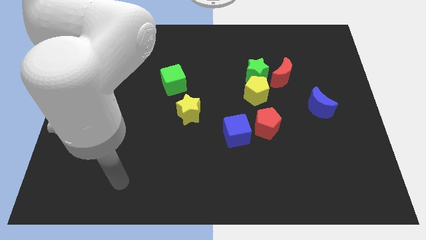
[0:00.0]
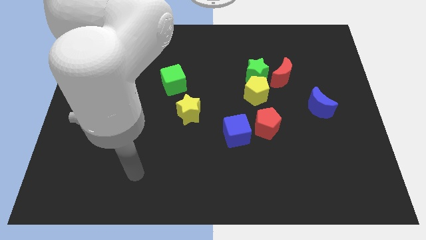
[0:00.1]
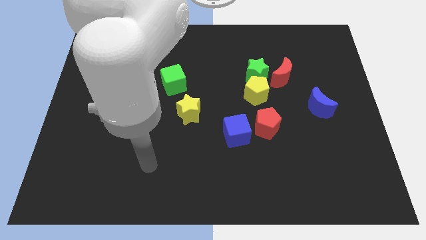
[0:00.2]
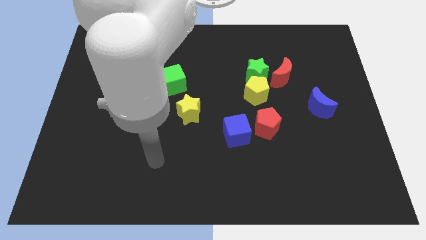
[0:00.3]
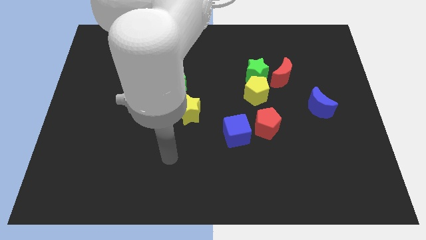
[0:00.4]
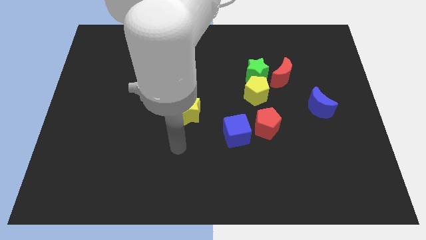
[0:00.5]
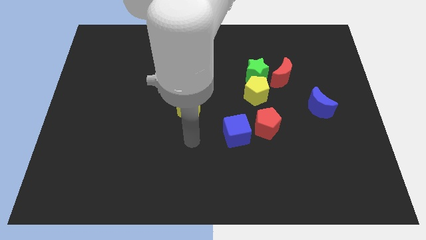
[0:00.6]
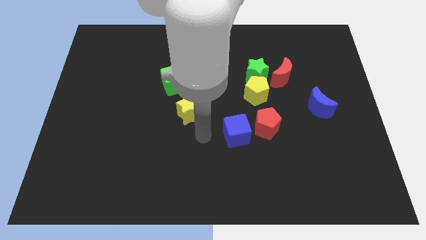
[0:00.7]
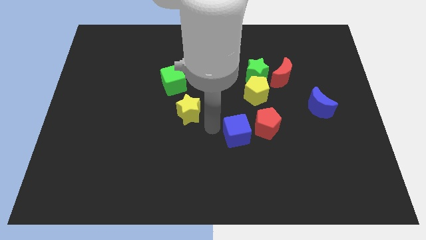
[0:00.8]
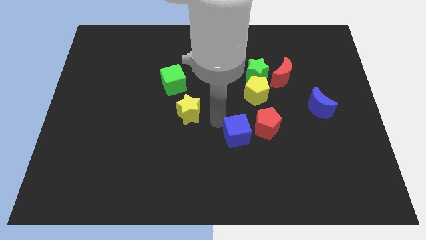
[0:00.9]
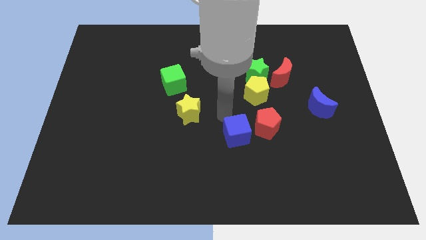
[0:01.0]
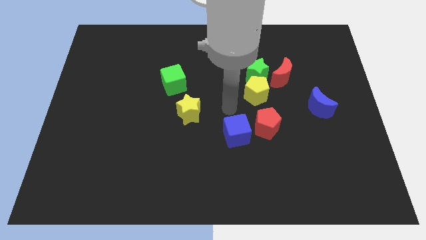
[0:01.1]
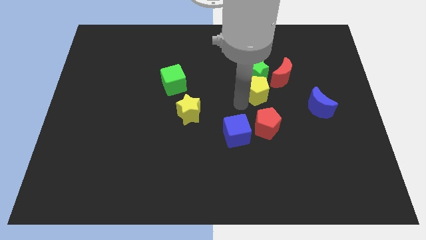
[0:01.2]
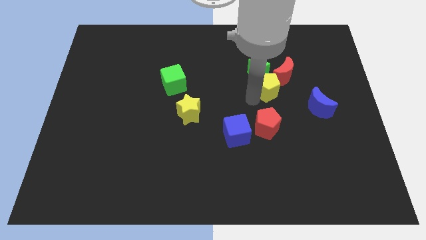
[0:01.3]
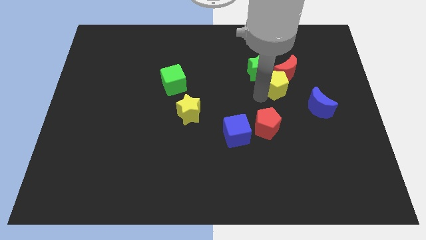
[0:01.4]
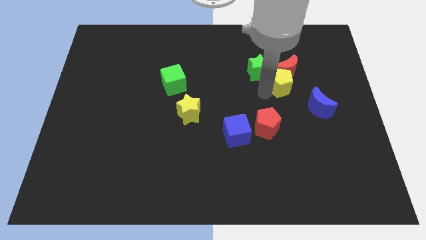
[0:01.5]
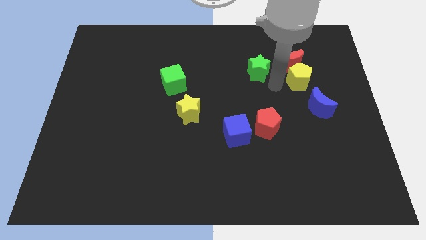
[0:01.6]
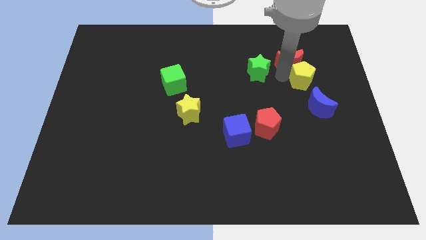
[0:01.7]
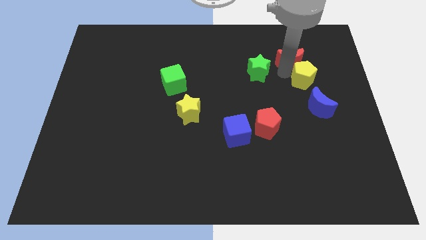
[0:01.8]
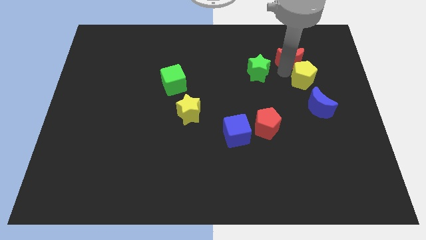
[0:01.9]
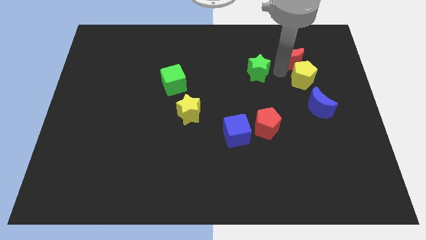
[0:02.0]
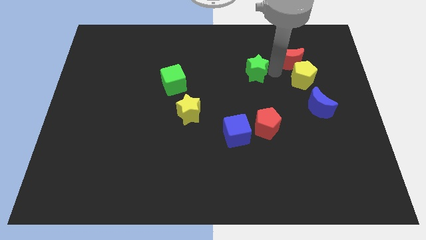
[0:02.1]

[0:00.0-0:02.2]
separate the green star from the yellow pentagon and red moon

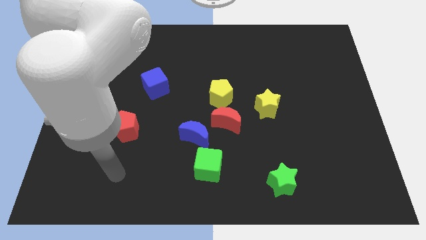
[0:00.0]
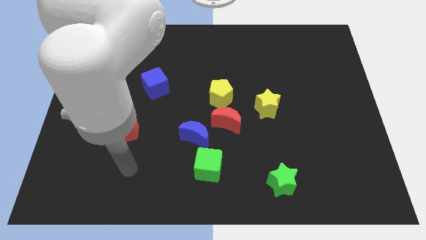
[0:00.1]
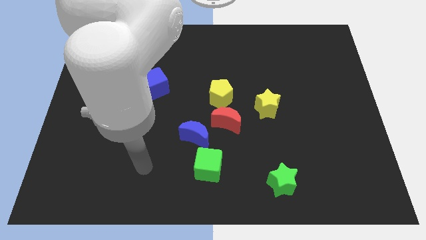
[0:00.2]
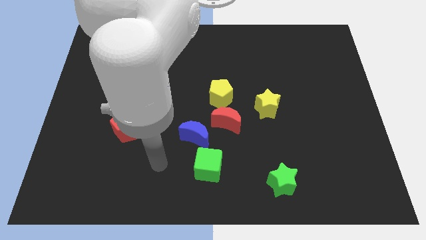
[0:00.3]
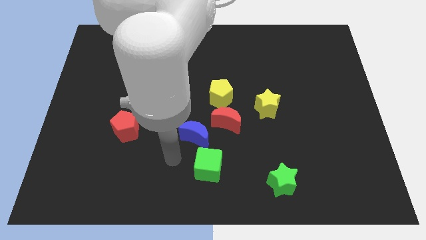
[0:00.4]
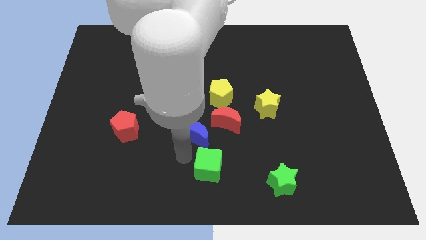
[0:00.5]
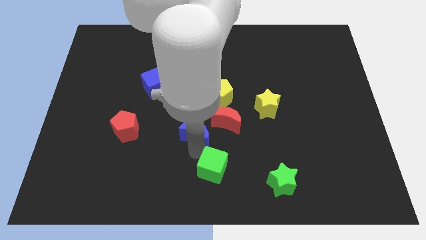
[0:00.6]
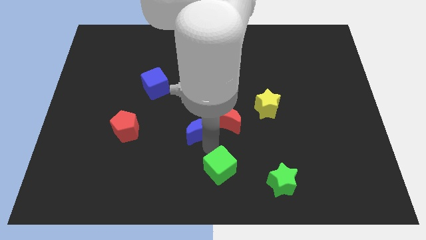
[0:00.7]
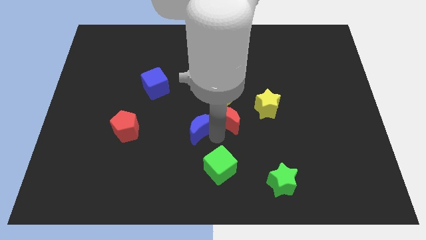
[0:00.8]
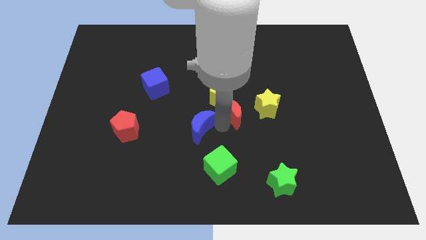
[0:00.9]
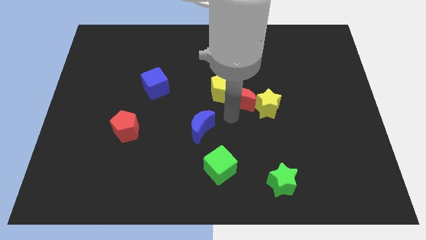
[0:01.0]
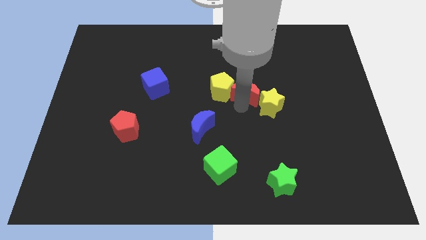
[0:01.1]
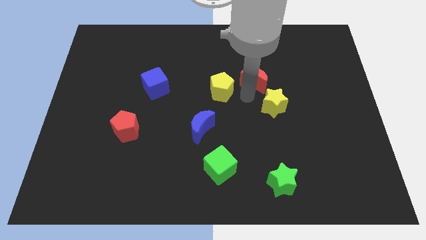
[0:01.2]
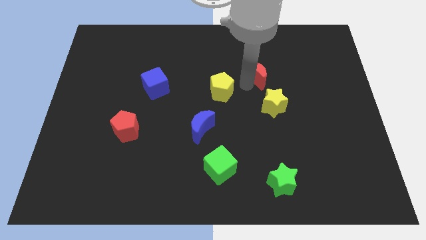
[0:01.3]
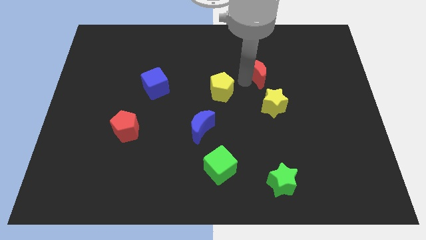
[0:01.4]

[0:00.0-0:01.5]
separate the yellow pentagon from the red moon

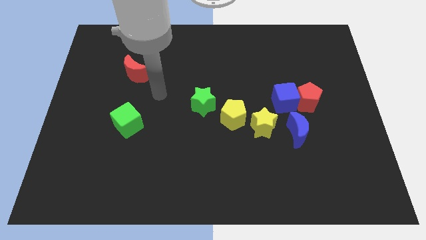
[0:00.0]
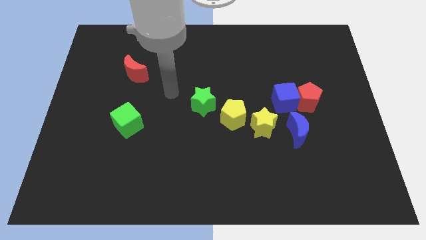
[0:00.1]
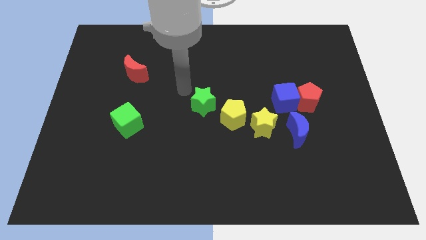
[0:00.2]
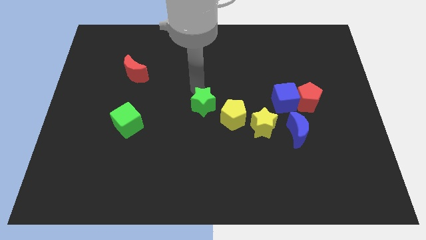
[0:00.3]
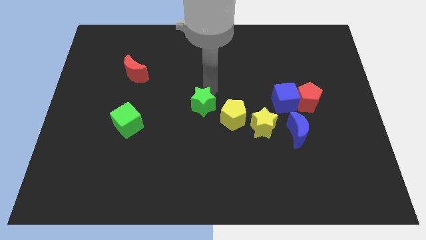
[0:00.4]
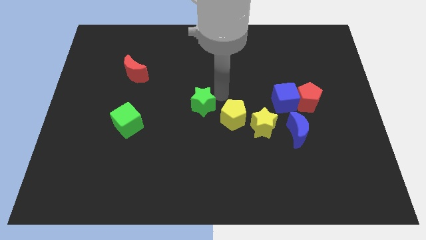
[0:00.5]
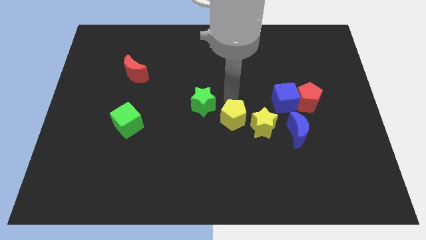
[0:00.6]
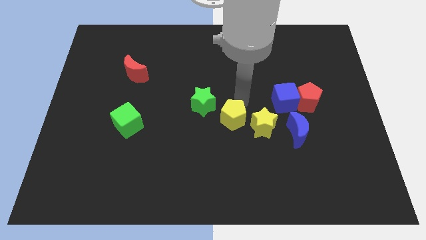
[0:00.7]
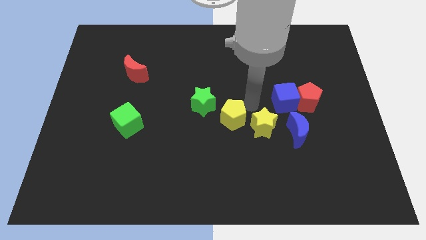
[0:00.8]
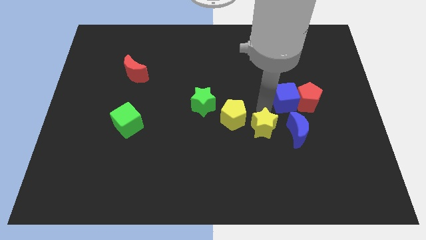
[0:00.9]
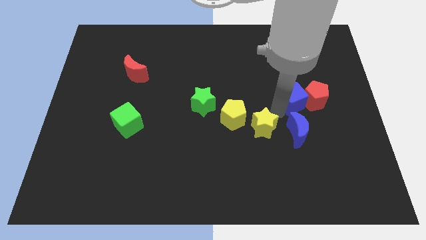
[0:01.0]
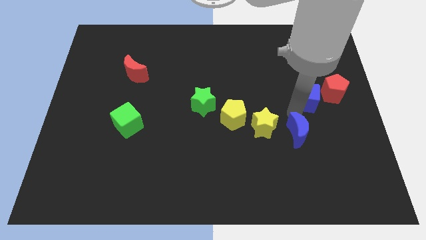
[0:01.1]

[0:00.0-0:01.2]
separate the red pentagon from the blue cube and blue moon

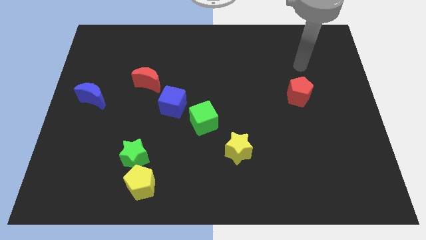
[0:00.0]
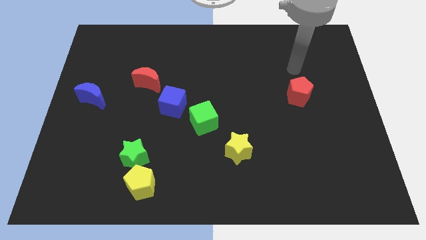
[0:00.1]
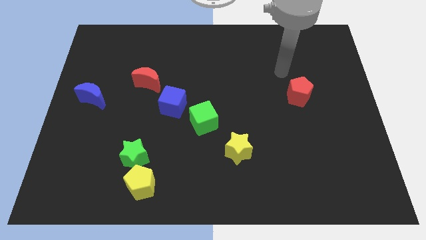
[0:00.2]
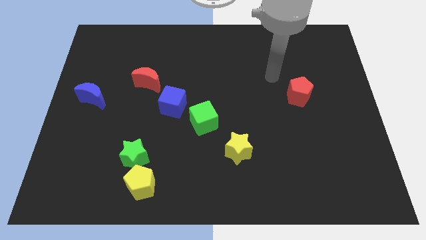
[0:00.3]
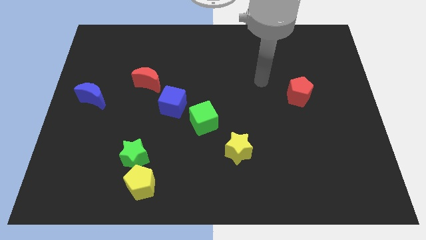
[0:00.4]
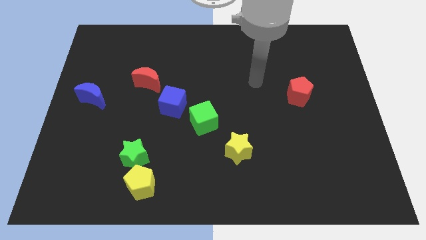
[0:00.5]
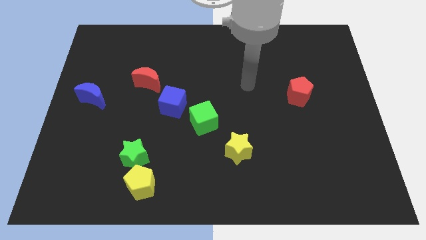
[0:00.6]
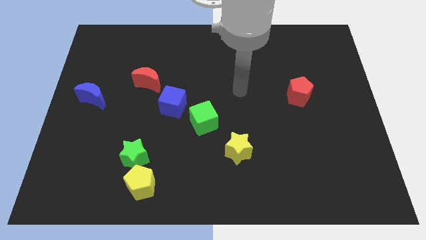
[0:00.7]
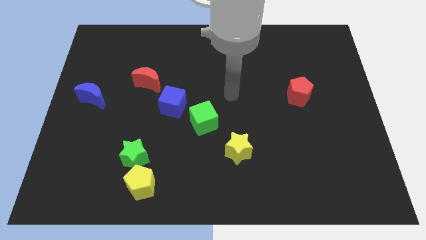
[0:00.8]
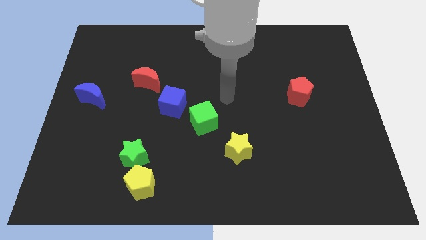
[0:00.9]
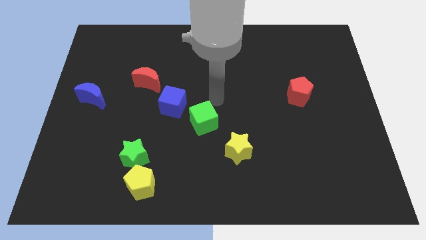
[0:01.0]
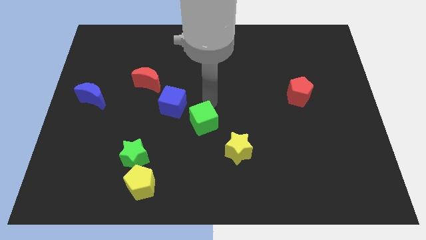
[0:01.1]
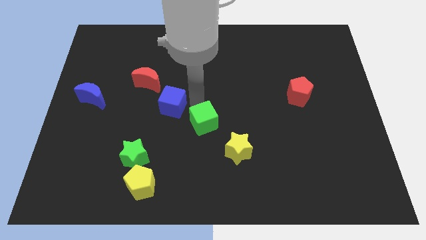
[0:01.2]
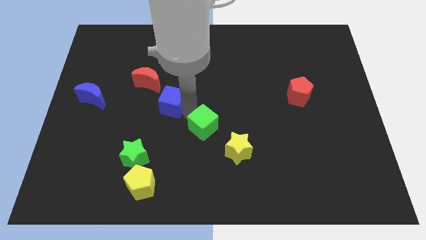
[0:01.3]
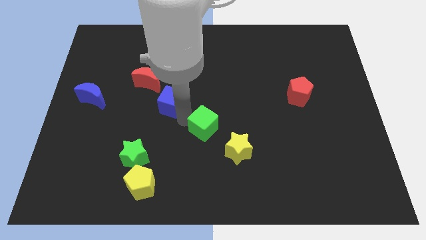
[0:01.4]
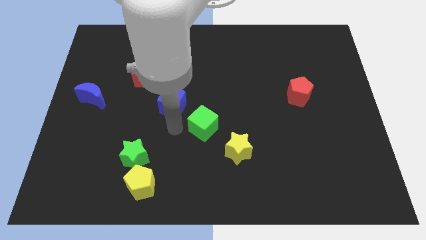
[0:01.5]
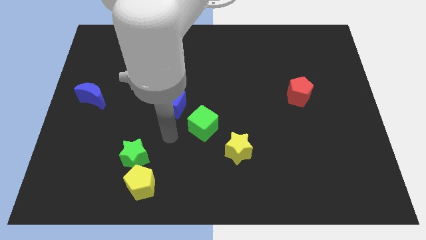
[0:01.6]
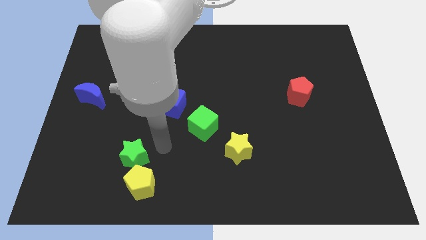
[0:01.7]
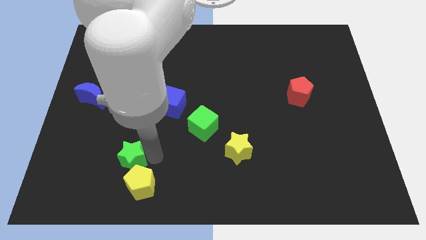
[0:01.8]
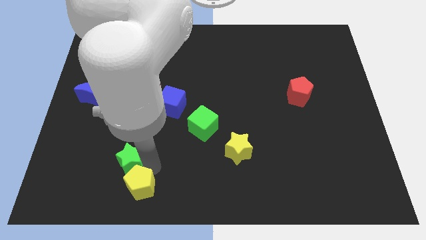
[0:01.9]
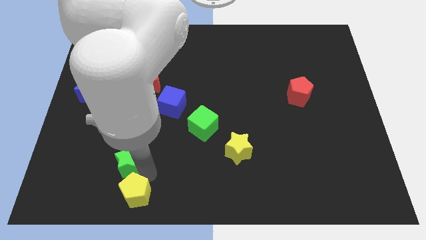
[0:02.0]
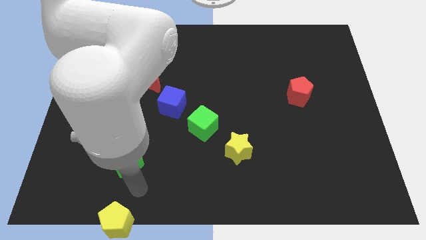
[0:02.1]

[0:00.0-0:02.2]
separate the green star from the yellow pentagon

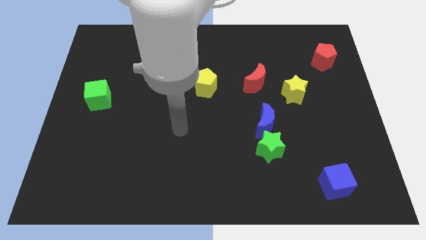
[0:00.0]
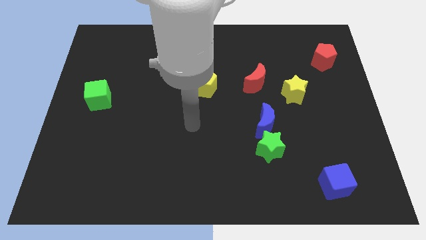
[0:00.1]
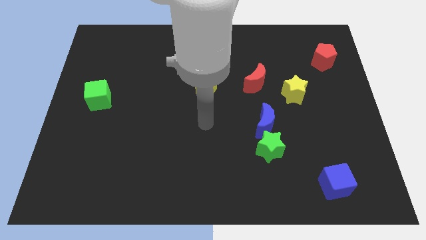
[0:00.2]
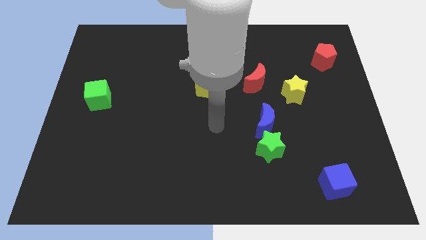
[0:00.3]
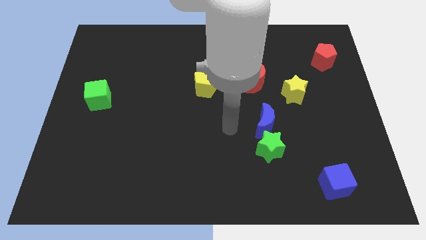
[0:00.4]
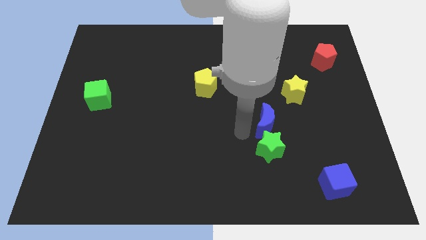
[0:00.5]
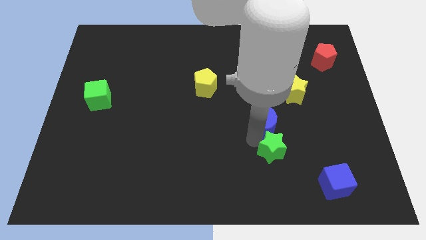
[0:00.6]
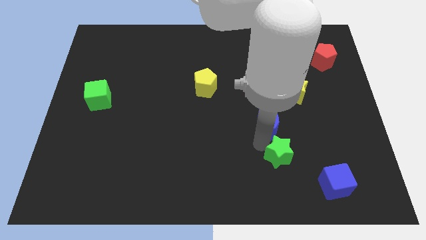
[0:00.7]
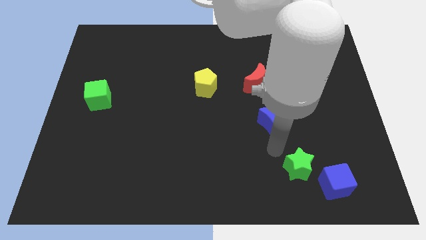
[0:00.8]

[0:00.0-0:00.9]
move the blue moon away from the green star

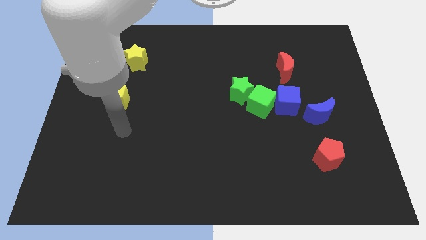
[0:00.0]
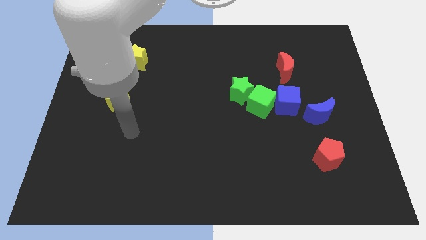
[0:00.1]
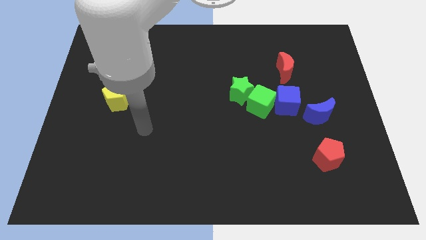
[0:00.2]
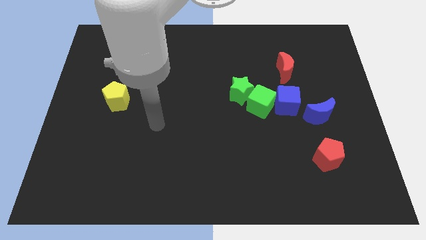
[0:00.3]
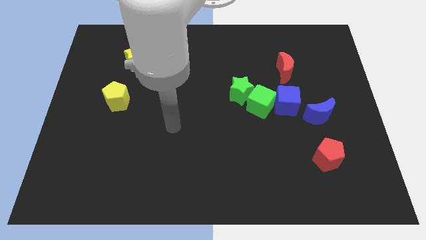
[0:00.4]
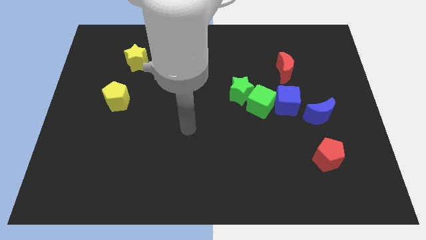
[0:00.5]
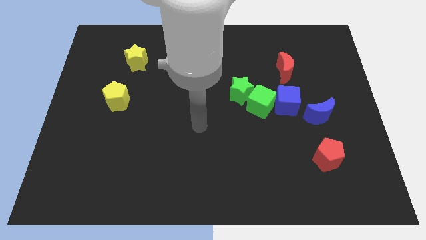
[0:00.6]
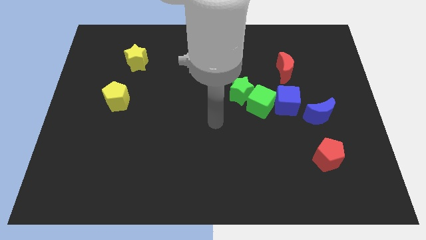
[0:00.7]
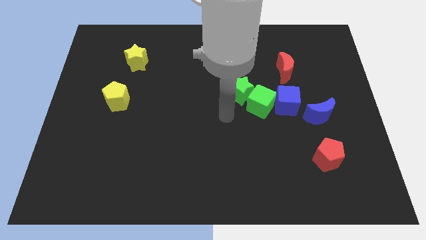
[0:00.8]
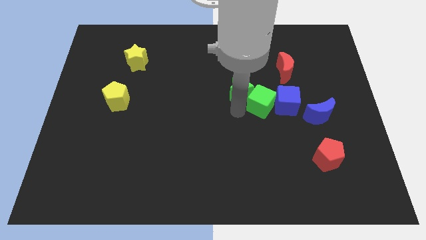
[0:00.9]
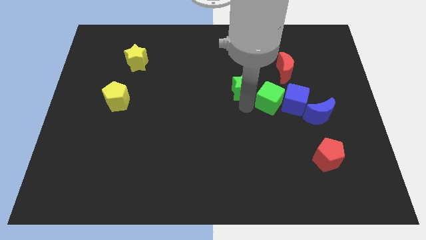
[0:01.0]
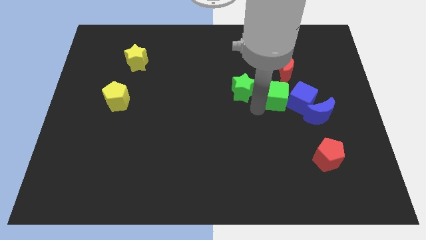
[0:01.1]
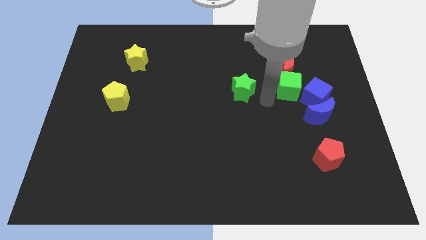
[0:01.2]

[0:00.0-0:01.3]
separate the green star from the green cube
